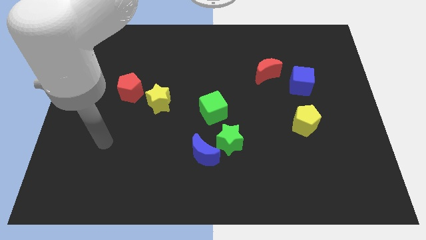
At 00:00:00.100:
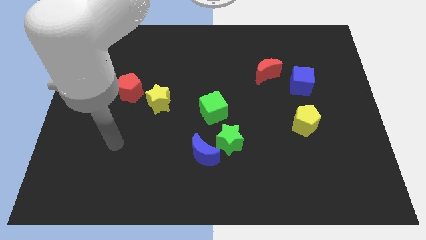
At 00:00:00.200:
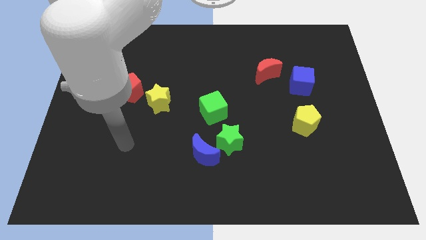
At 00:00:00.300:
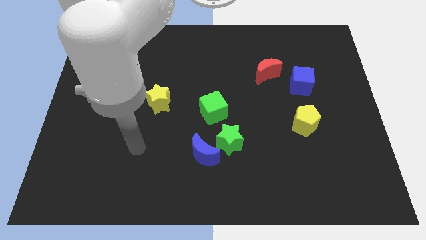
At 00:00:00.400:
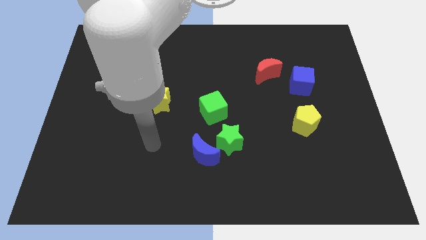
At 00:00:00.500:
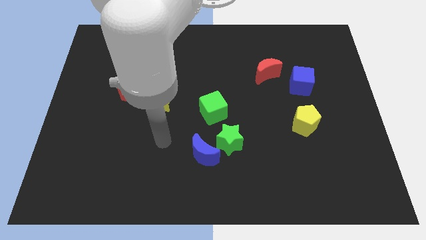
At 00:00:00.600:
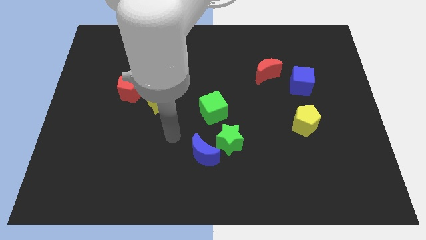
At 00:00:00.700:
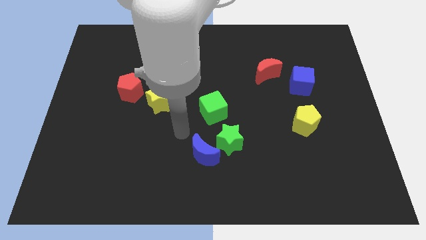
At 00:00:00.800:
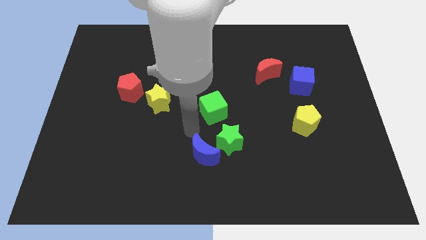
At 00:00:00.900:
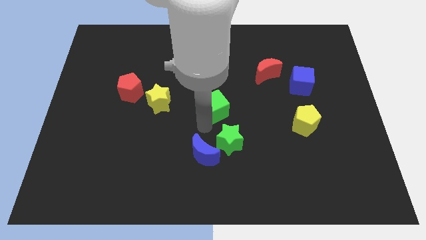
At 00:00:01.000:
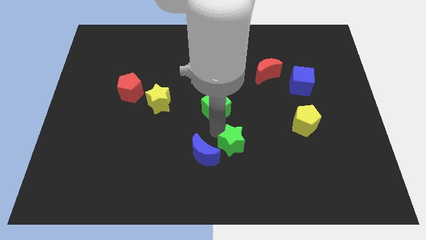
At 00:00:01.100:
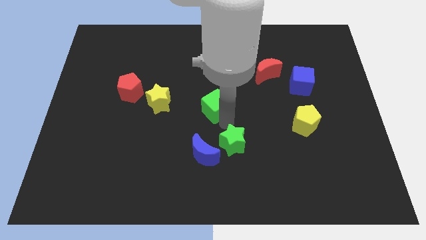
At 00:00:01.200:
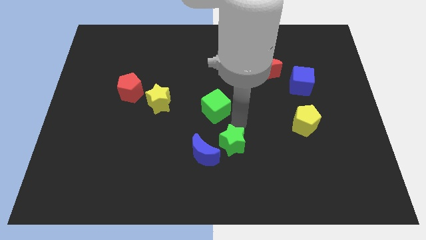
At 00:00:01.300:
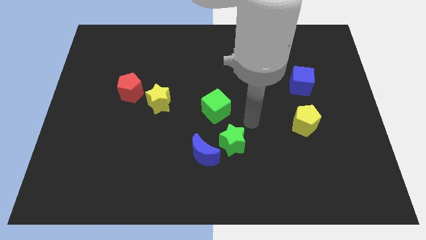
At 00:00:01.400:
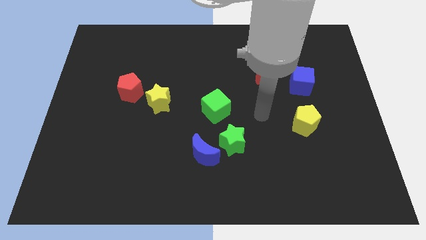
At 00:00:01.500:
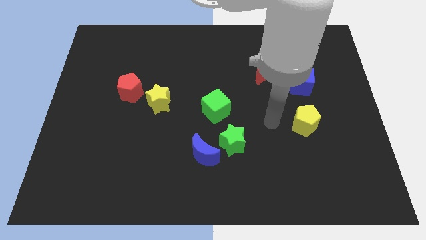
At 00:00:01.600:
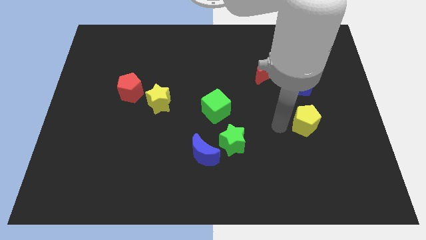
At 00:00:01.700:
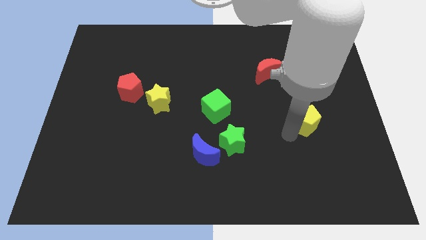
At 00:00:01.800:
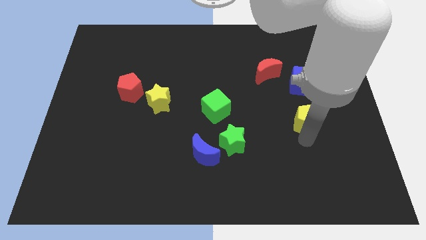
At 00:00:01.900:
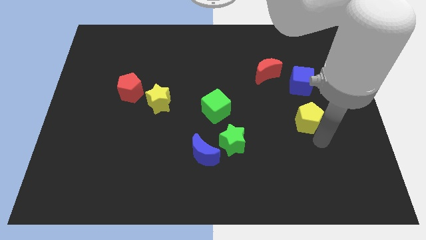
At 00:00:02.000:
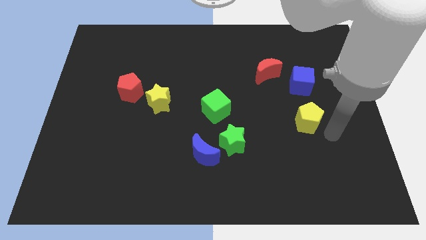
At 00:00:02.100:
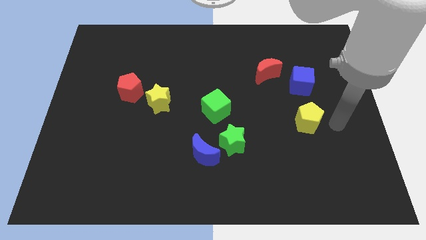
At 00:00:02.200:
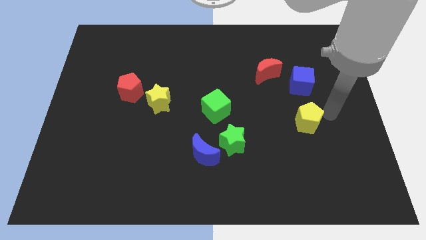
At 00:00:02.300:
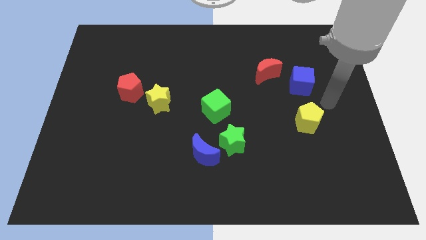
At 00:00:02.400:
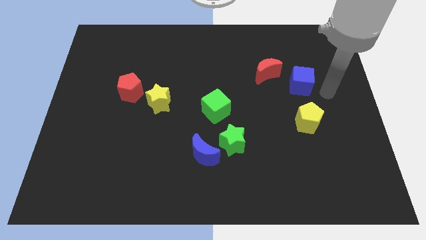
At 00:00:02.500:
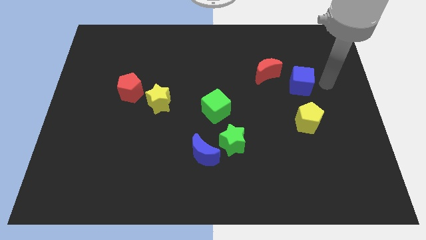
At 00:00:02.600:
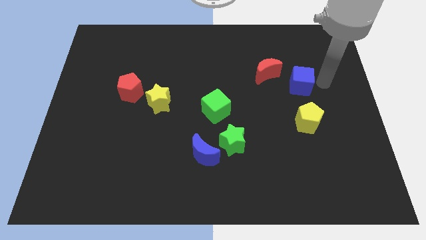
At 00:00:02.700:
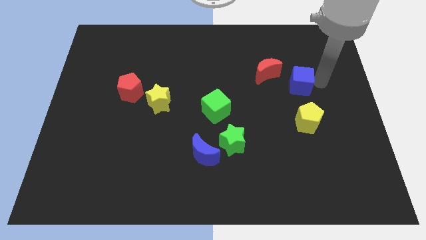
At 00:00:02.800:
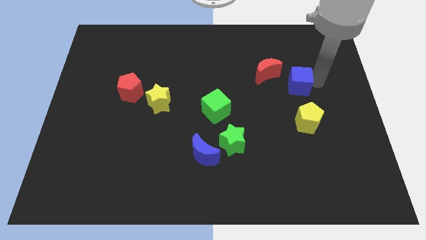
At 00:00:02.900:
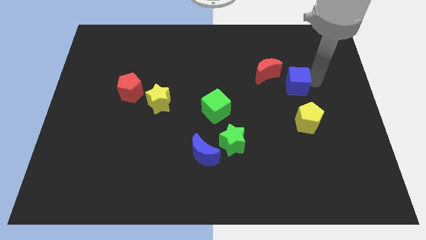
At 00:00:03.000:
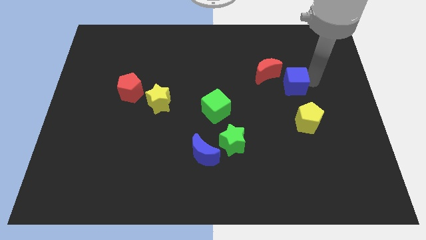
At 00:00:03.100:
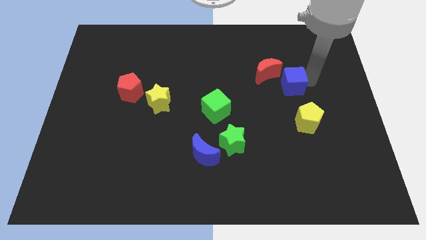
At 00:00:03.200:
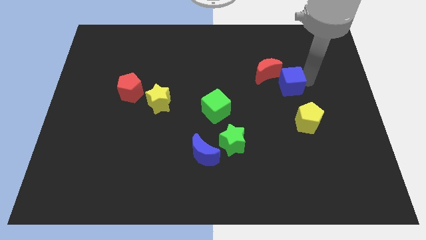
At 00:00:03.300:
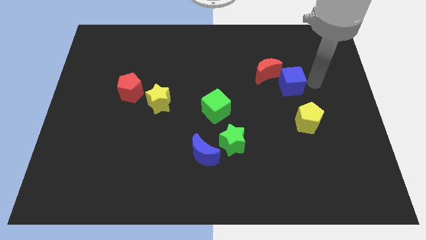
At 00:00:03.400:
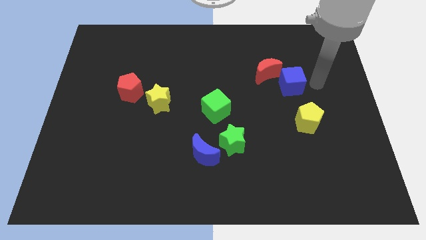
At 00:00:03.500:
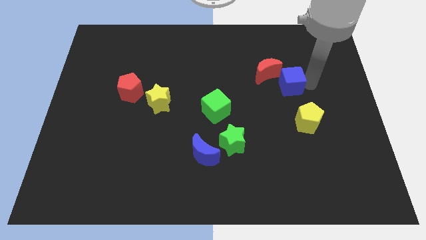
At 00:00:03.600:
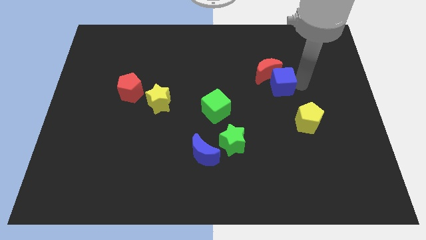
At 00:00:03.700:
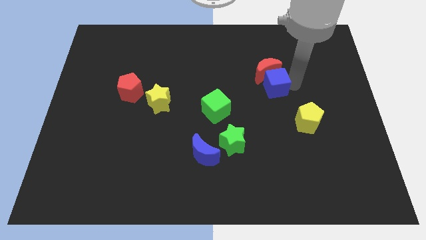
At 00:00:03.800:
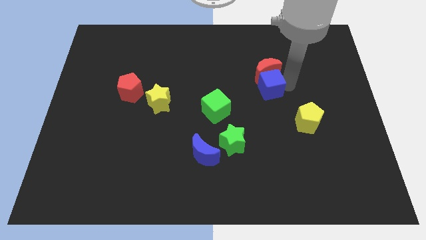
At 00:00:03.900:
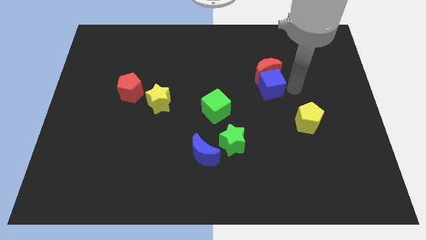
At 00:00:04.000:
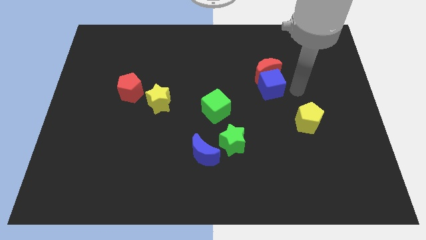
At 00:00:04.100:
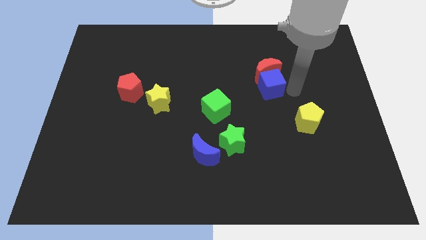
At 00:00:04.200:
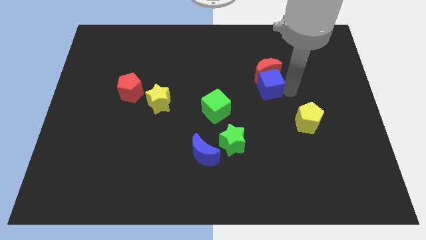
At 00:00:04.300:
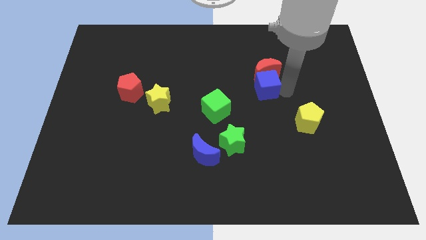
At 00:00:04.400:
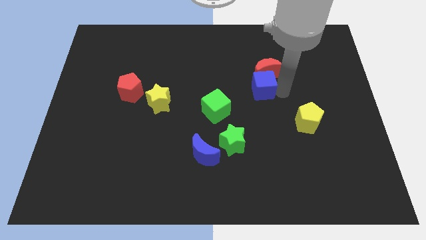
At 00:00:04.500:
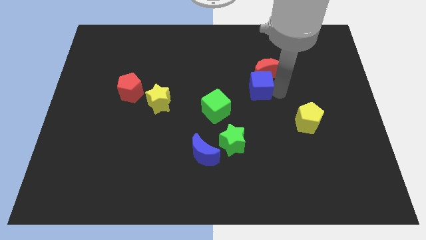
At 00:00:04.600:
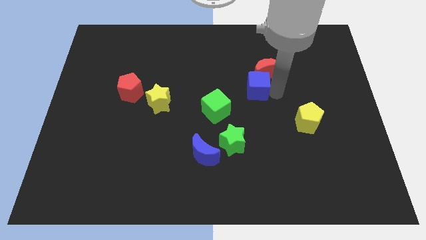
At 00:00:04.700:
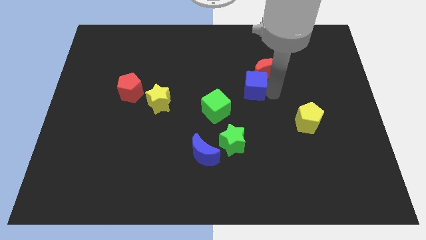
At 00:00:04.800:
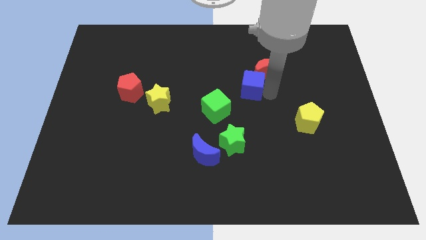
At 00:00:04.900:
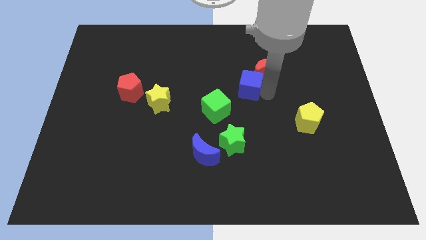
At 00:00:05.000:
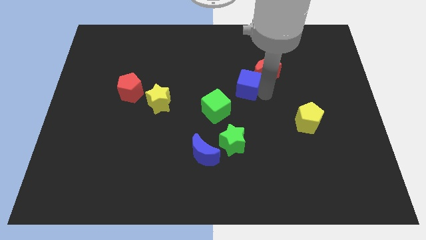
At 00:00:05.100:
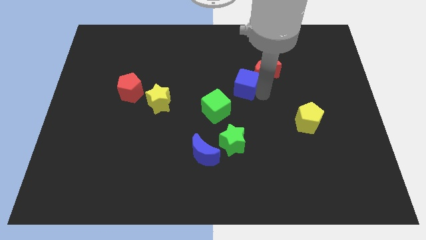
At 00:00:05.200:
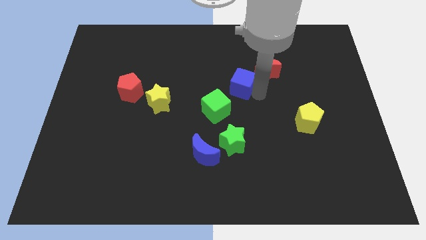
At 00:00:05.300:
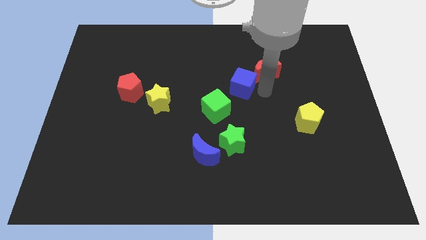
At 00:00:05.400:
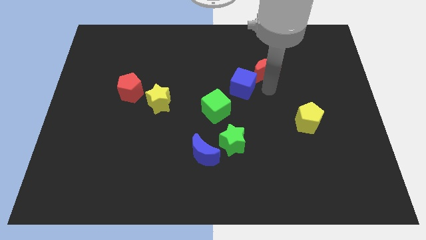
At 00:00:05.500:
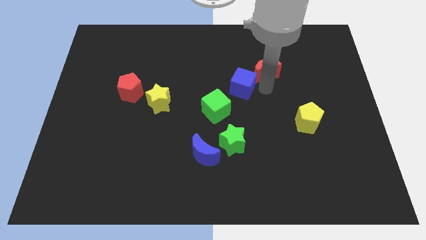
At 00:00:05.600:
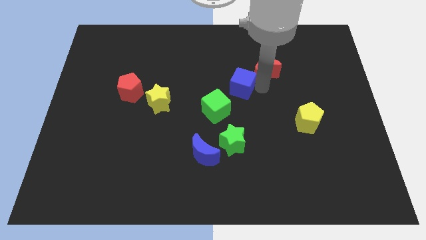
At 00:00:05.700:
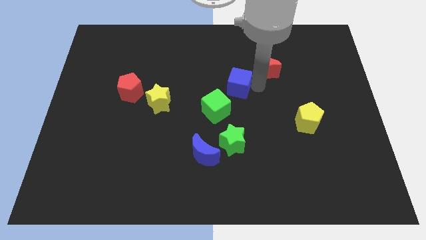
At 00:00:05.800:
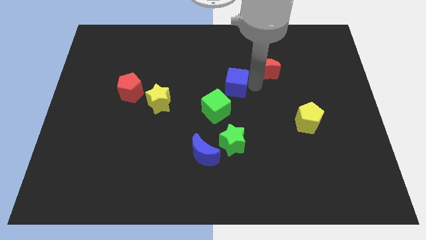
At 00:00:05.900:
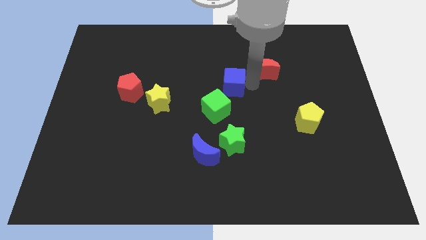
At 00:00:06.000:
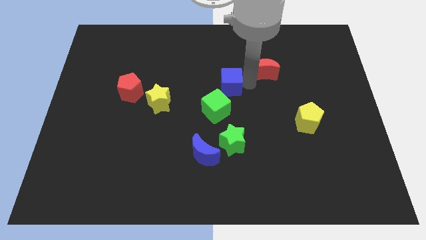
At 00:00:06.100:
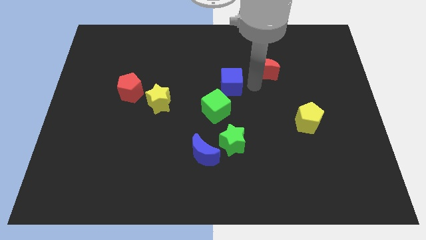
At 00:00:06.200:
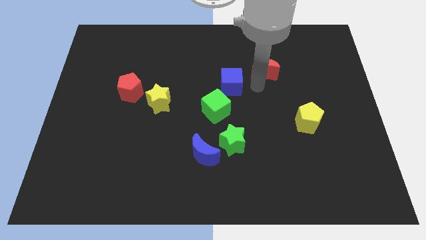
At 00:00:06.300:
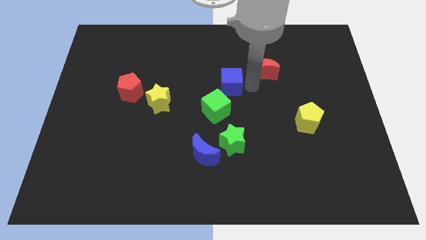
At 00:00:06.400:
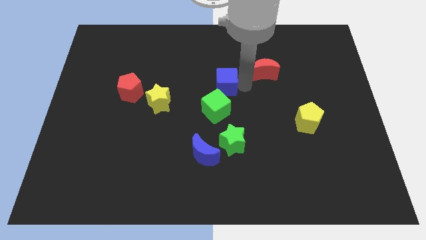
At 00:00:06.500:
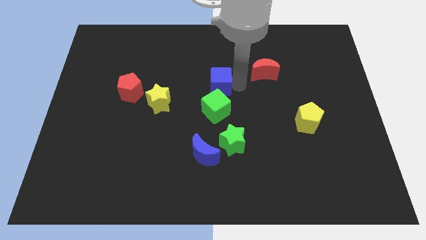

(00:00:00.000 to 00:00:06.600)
slide the blue cube left

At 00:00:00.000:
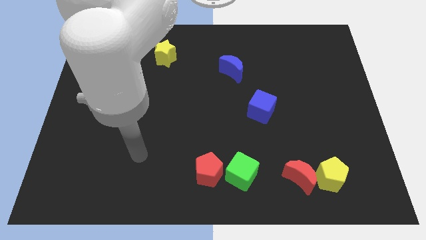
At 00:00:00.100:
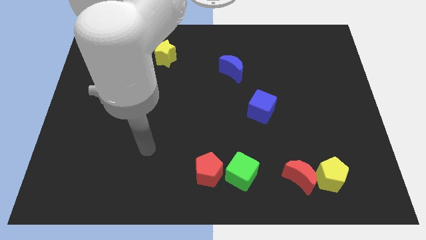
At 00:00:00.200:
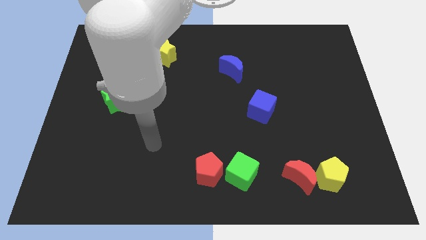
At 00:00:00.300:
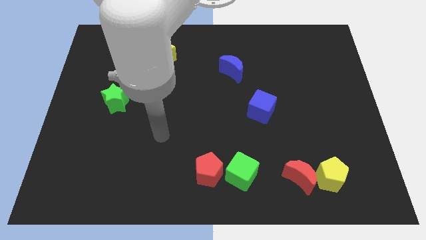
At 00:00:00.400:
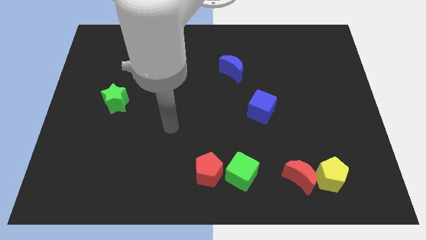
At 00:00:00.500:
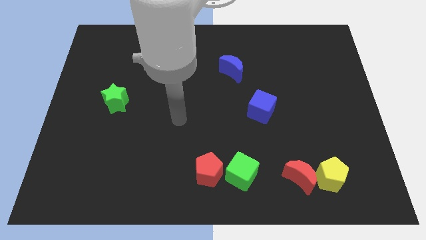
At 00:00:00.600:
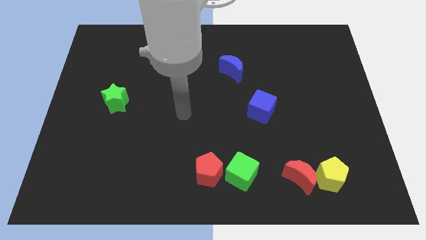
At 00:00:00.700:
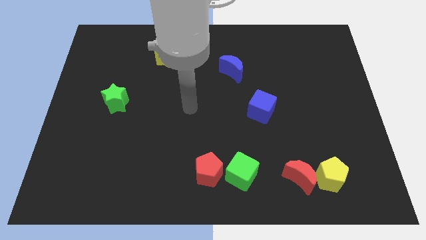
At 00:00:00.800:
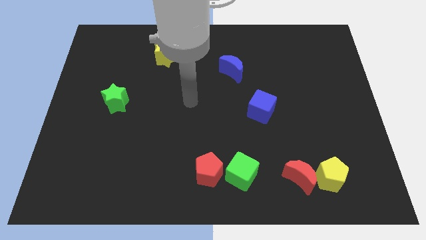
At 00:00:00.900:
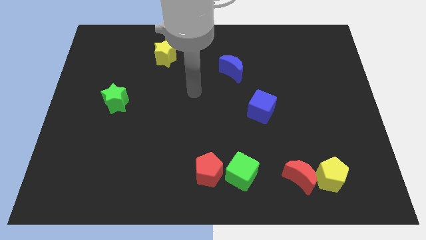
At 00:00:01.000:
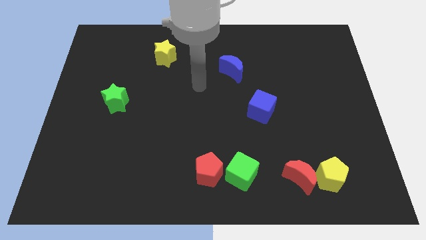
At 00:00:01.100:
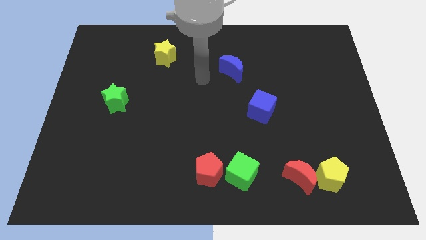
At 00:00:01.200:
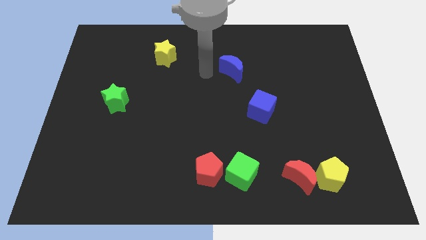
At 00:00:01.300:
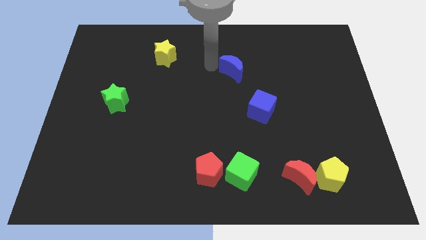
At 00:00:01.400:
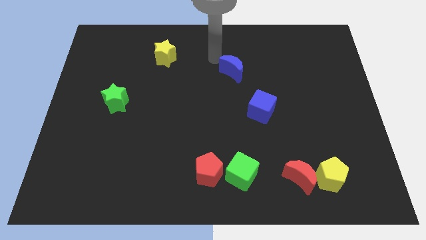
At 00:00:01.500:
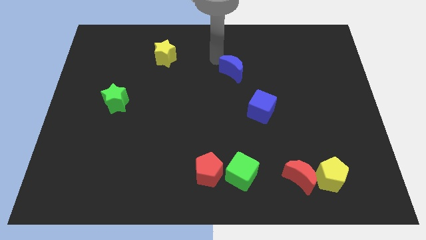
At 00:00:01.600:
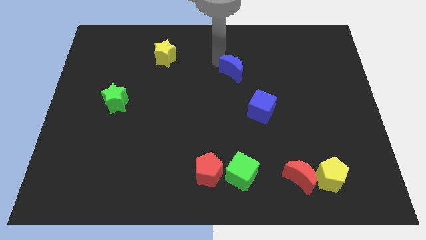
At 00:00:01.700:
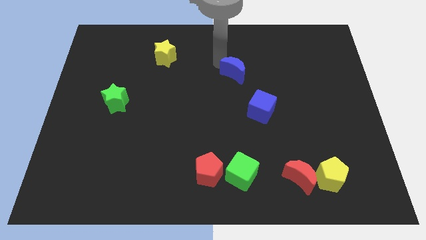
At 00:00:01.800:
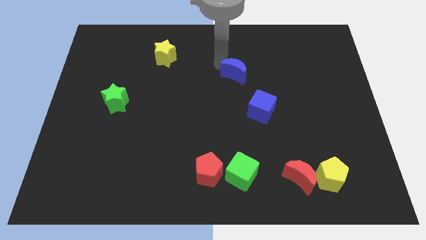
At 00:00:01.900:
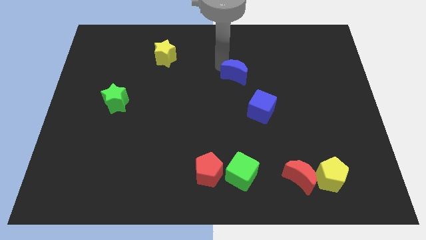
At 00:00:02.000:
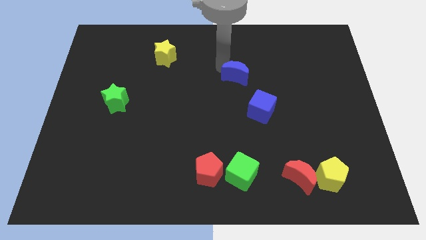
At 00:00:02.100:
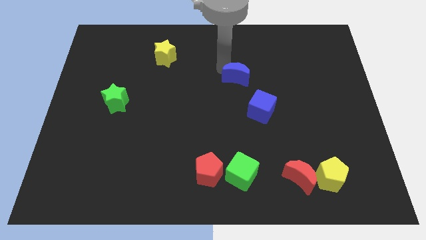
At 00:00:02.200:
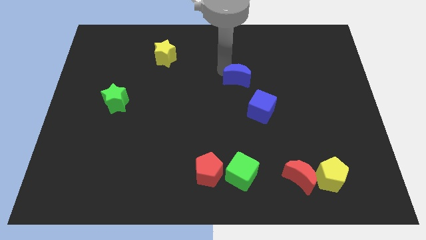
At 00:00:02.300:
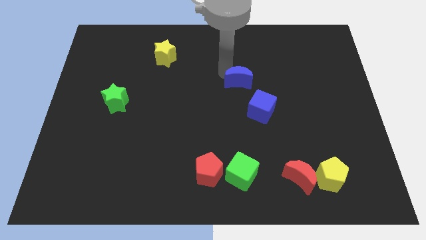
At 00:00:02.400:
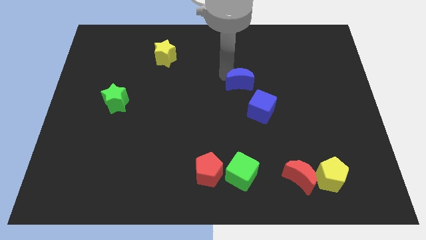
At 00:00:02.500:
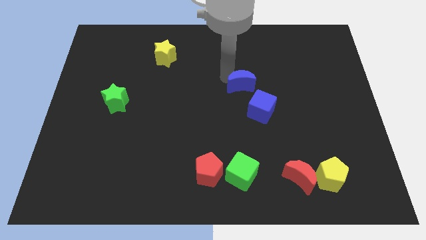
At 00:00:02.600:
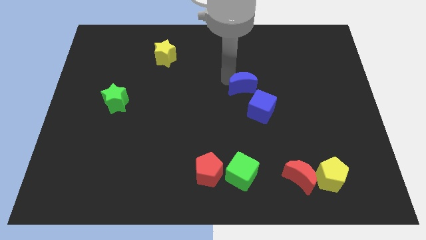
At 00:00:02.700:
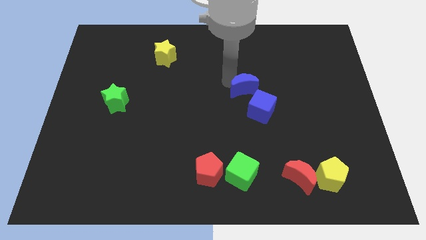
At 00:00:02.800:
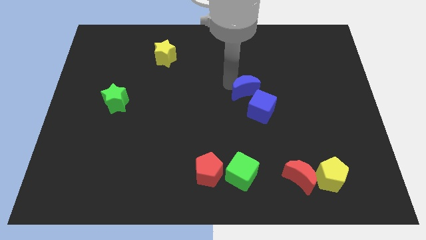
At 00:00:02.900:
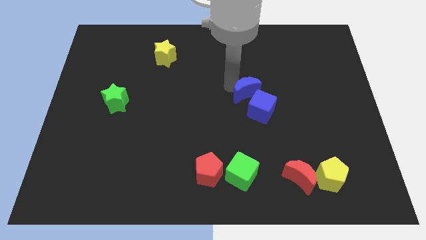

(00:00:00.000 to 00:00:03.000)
slightly push the blue moon diagonally down and to the right
